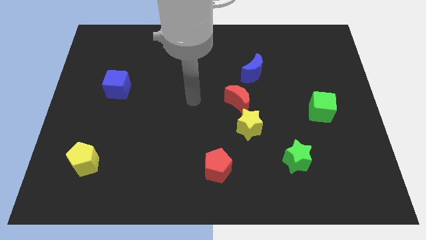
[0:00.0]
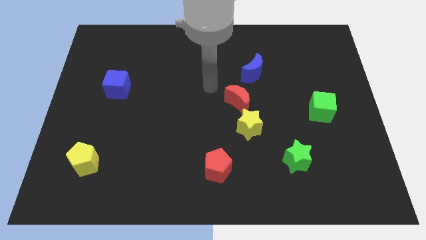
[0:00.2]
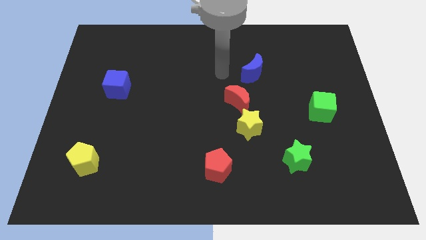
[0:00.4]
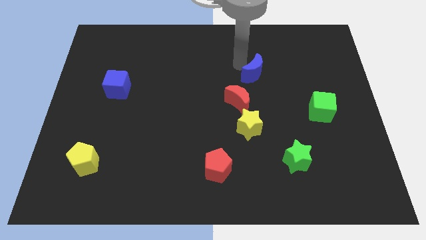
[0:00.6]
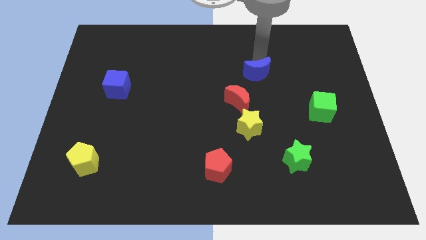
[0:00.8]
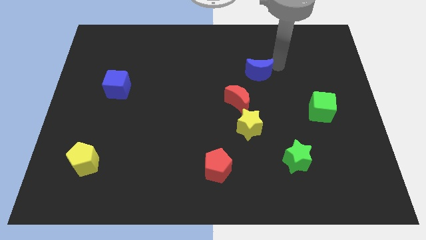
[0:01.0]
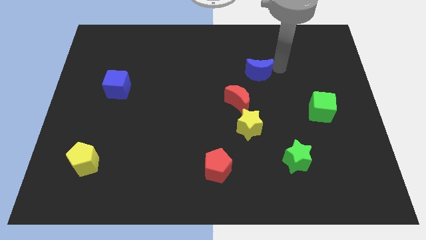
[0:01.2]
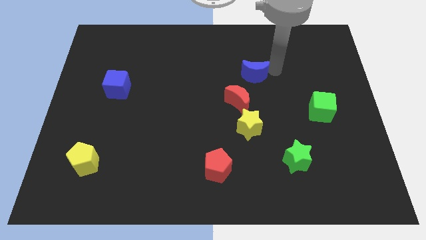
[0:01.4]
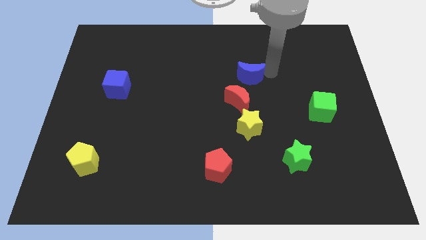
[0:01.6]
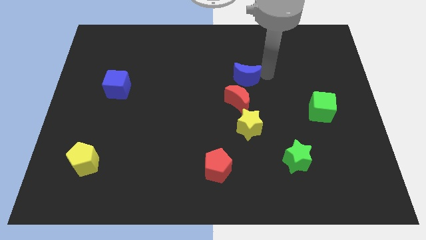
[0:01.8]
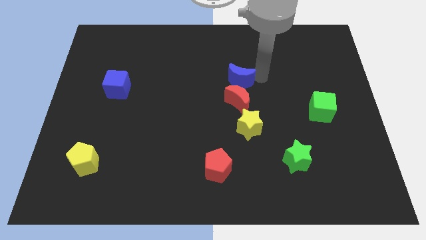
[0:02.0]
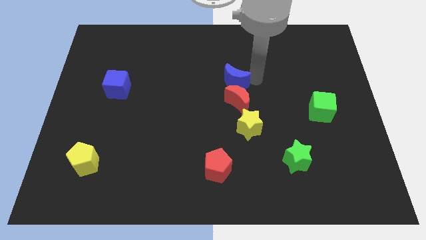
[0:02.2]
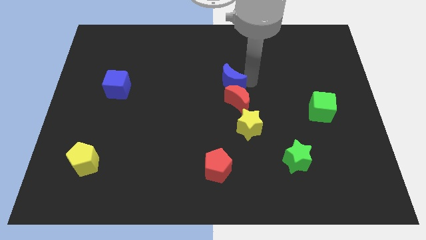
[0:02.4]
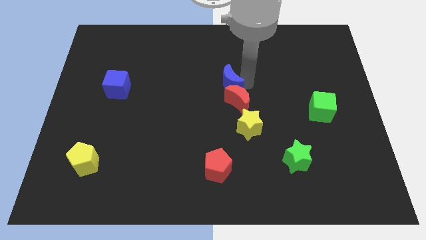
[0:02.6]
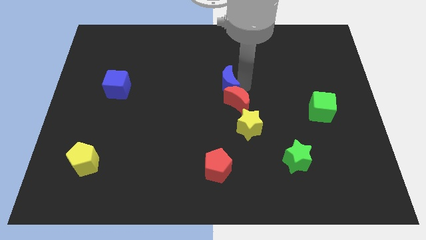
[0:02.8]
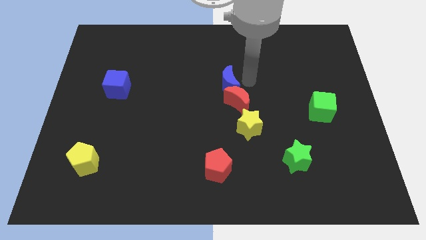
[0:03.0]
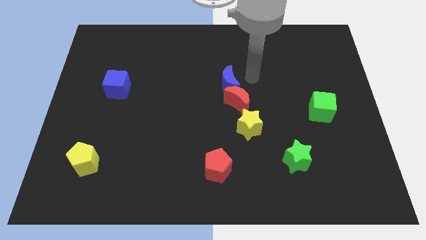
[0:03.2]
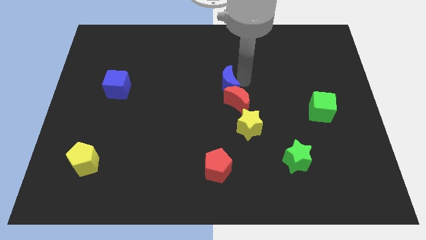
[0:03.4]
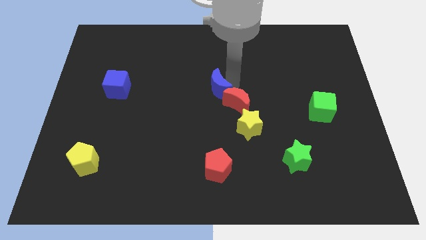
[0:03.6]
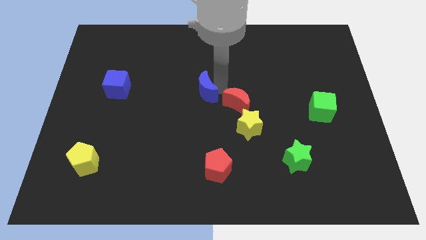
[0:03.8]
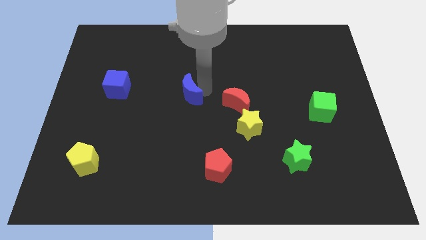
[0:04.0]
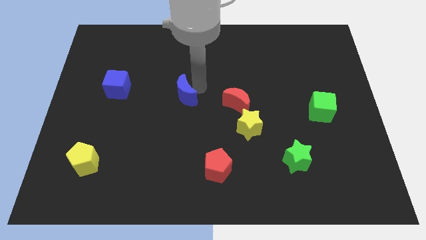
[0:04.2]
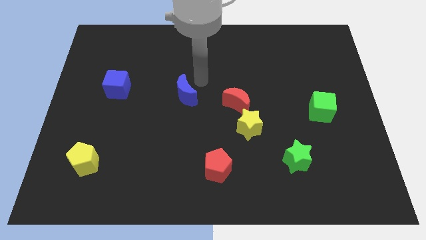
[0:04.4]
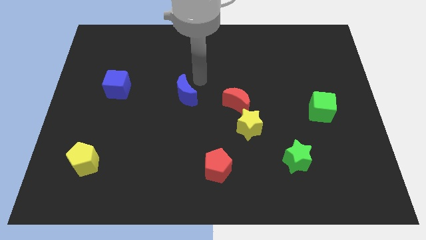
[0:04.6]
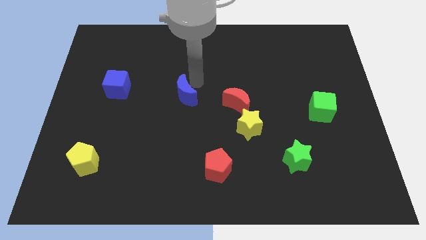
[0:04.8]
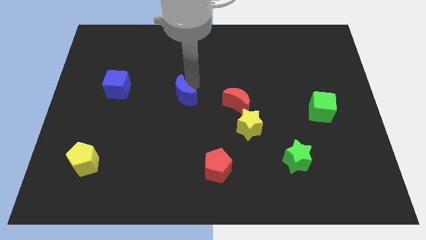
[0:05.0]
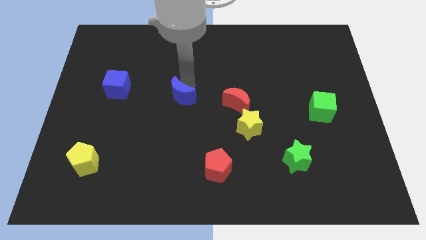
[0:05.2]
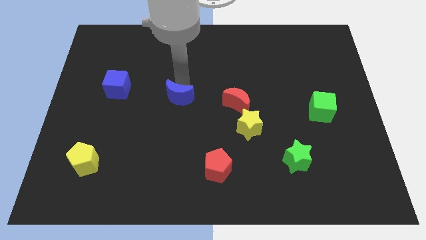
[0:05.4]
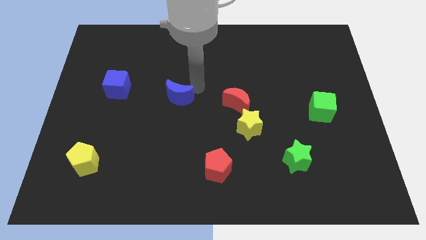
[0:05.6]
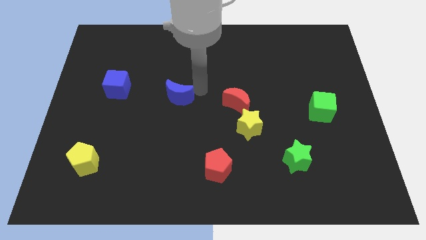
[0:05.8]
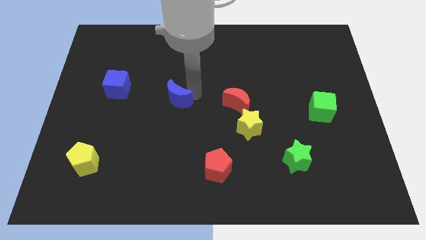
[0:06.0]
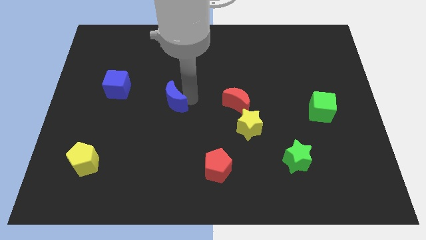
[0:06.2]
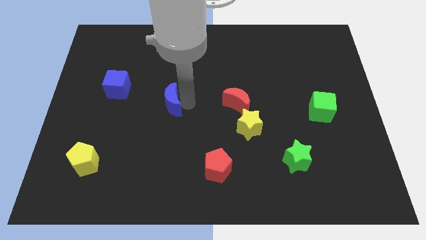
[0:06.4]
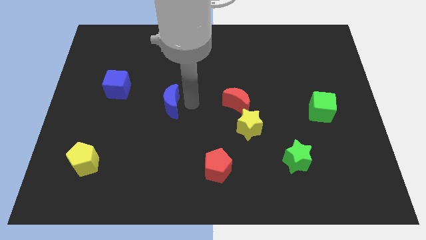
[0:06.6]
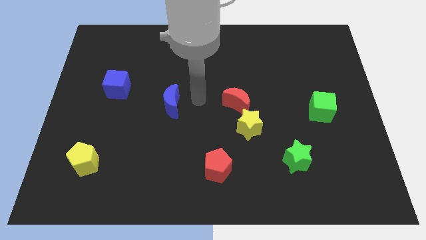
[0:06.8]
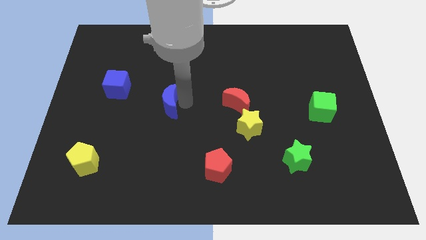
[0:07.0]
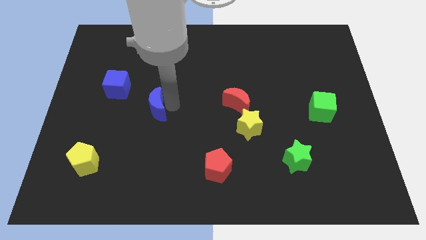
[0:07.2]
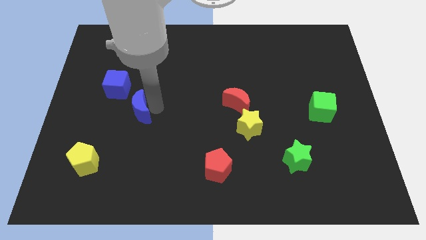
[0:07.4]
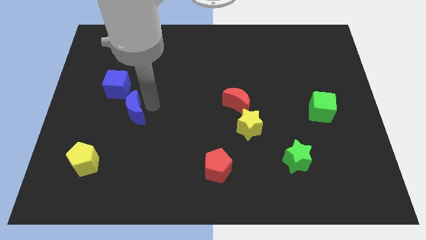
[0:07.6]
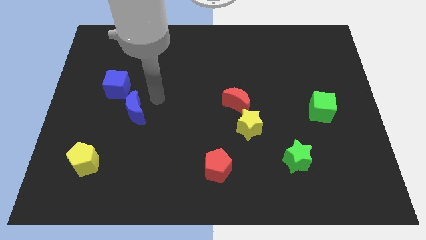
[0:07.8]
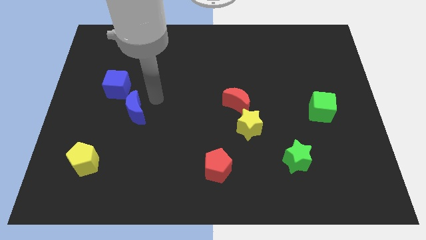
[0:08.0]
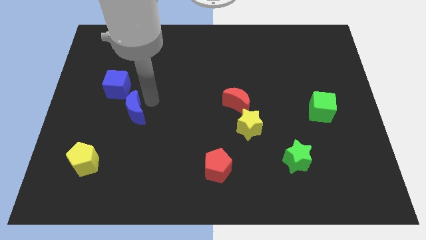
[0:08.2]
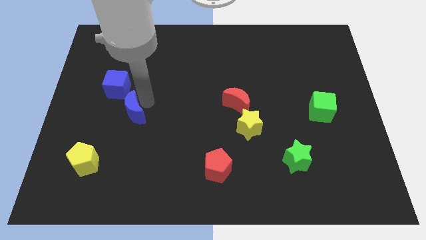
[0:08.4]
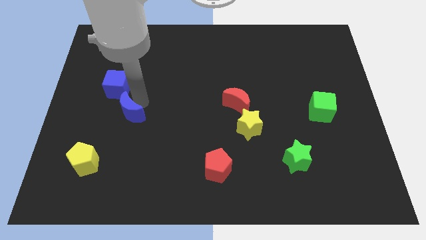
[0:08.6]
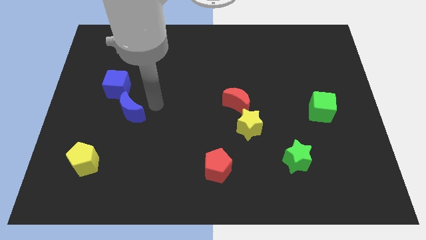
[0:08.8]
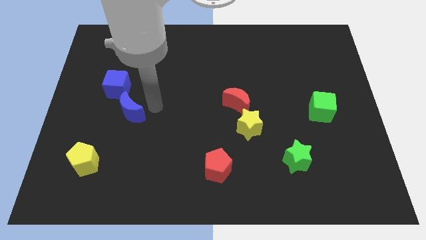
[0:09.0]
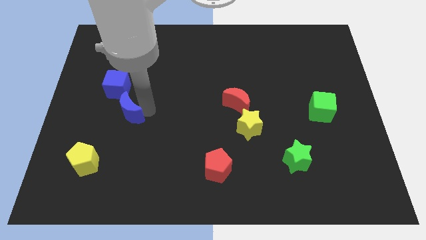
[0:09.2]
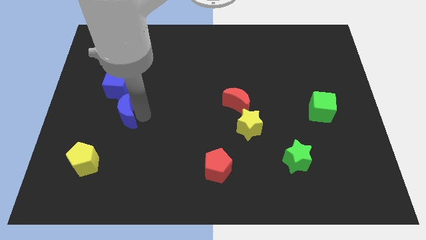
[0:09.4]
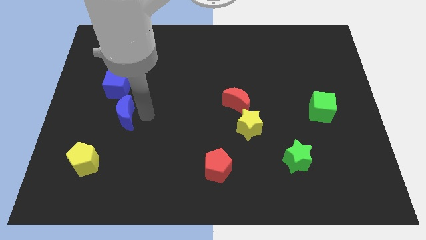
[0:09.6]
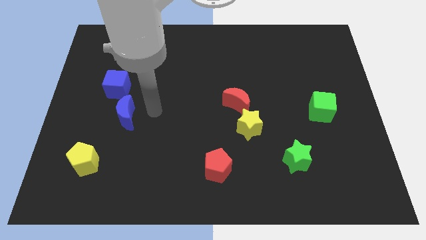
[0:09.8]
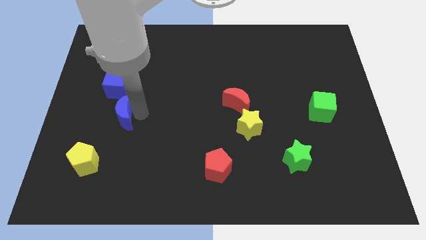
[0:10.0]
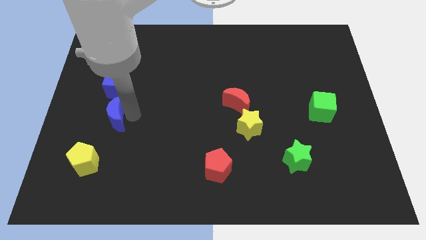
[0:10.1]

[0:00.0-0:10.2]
slide the blue moon to the top of the yellow pentagon

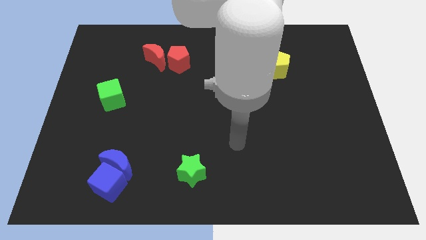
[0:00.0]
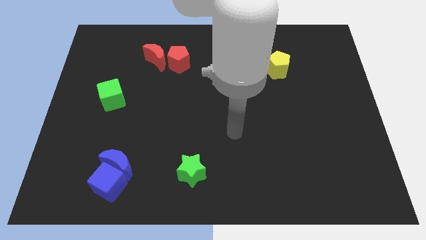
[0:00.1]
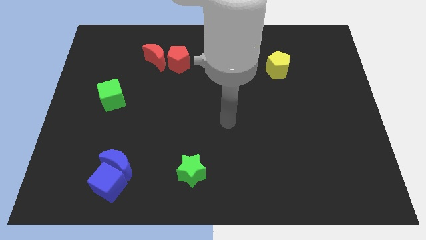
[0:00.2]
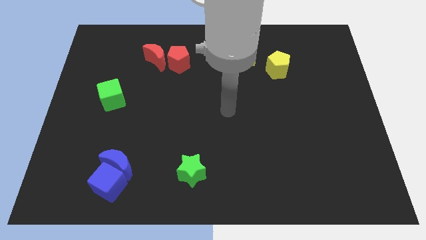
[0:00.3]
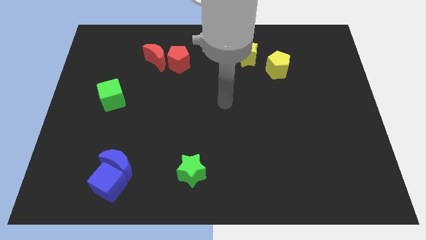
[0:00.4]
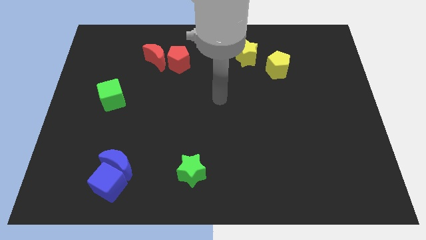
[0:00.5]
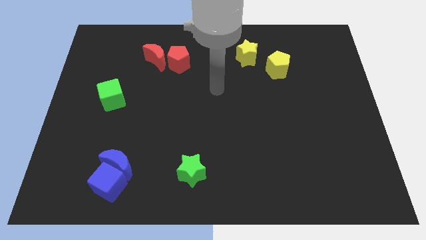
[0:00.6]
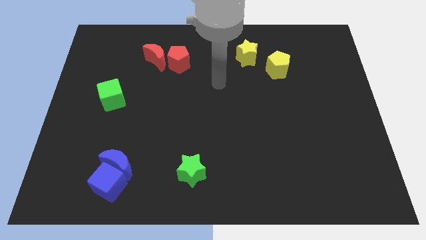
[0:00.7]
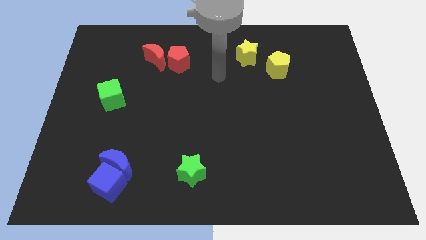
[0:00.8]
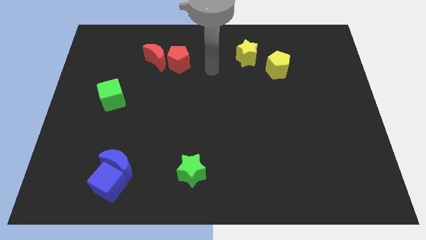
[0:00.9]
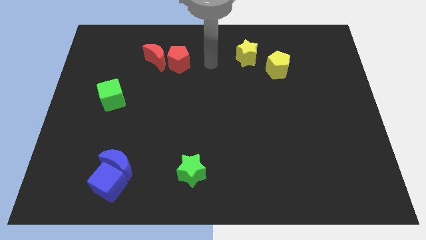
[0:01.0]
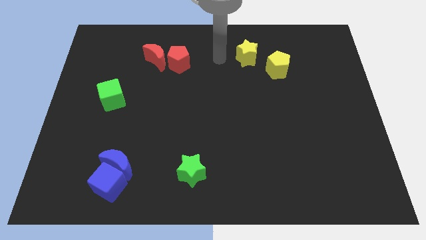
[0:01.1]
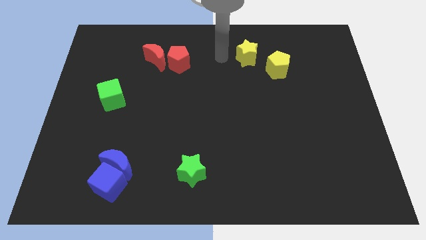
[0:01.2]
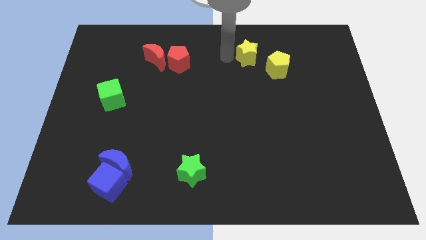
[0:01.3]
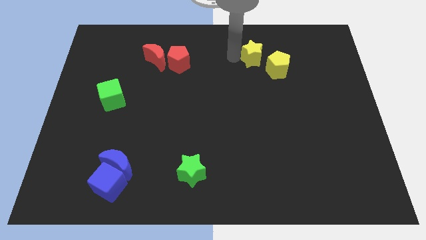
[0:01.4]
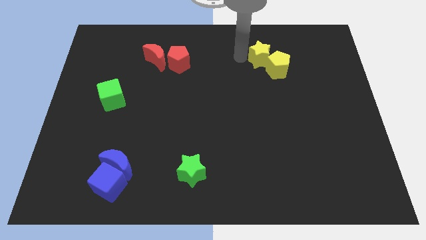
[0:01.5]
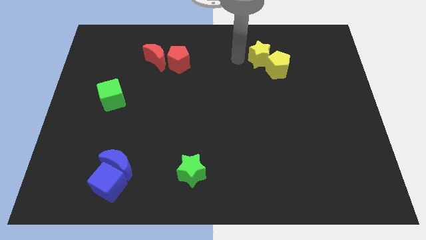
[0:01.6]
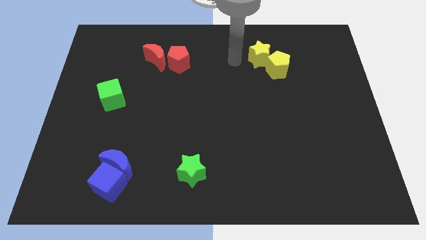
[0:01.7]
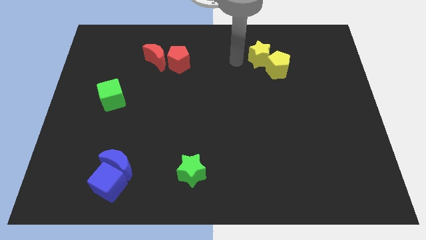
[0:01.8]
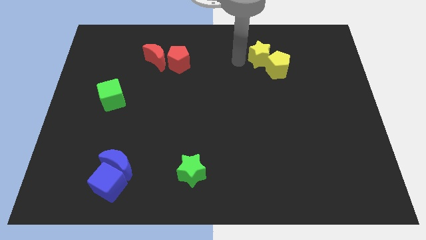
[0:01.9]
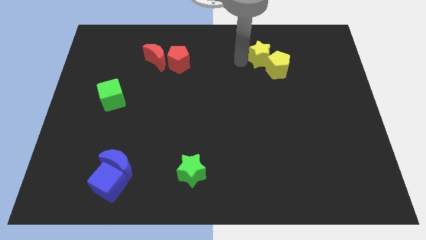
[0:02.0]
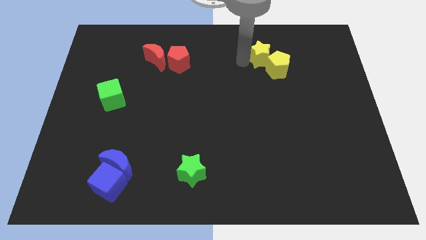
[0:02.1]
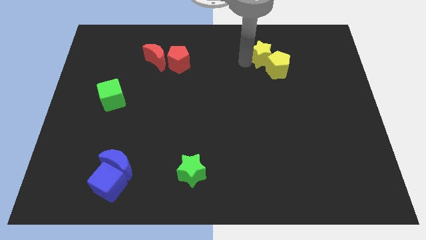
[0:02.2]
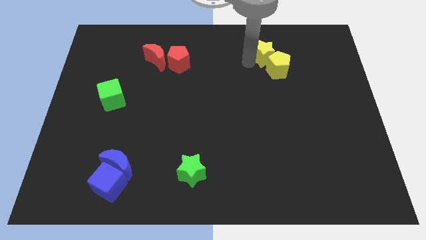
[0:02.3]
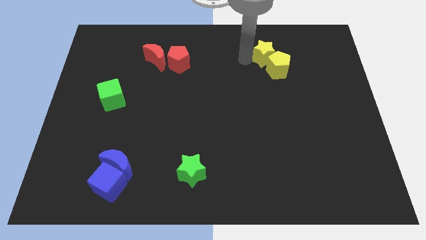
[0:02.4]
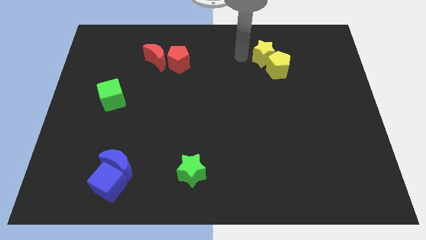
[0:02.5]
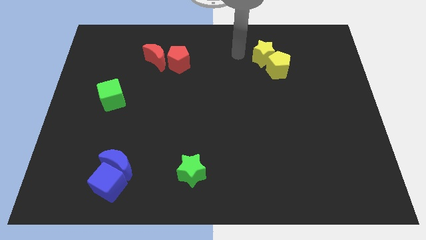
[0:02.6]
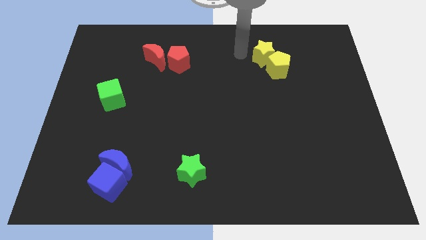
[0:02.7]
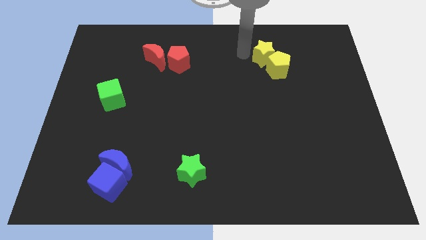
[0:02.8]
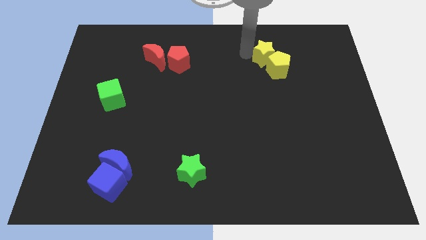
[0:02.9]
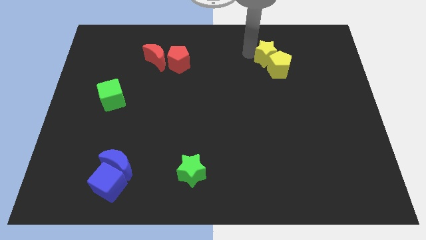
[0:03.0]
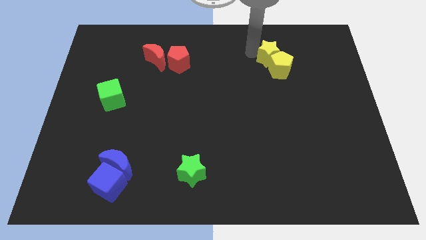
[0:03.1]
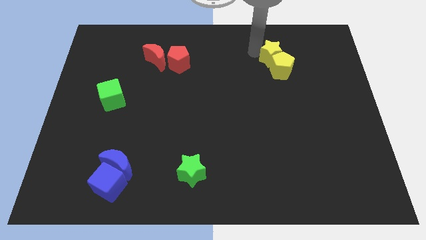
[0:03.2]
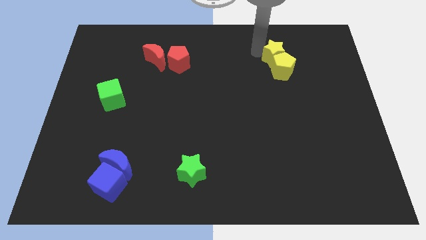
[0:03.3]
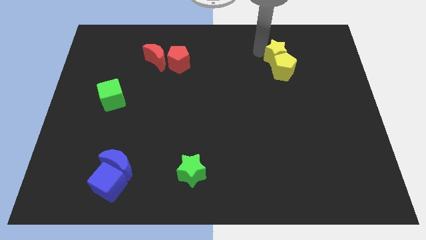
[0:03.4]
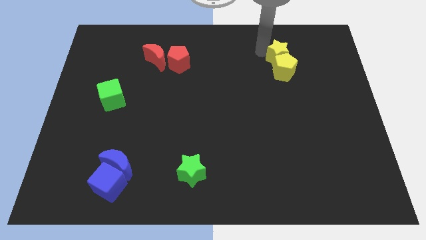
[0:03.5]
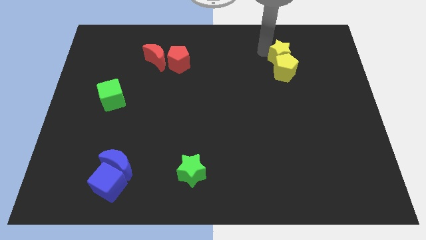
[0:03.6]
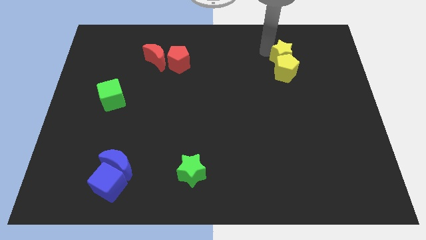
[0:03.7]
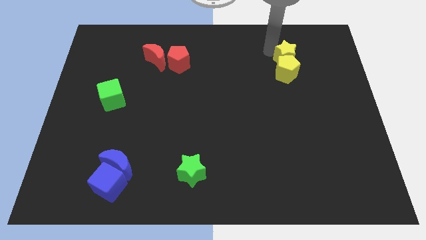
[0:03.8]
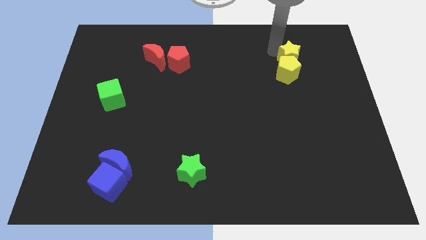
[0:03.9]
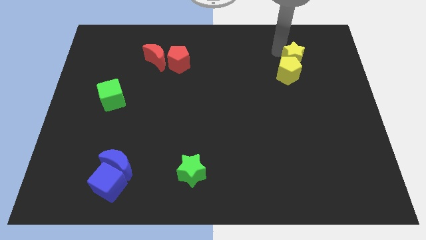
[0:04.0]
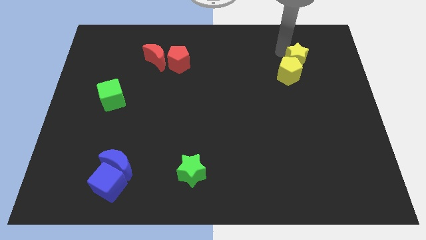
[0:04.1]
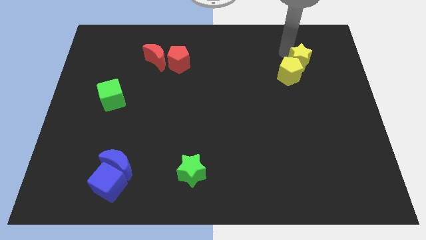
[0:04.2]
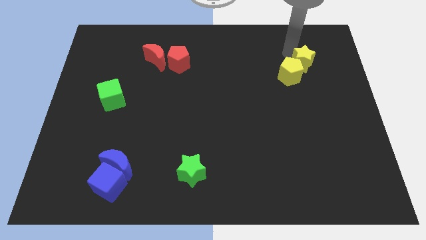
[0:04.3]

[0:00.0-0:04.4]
put the yellow star right of the yellow pentagon
